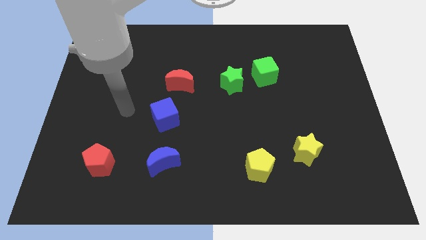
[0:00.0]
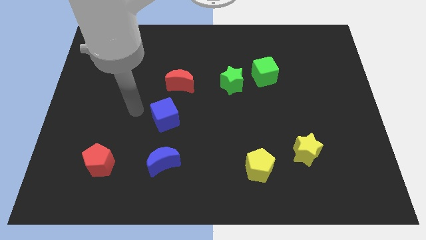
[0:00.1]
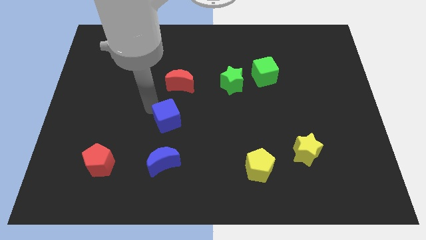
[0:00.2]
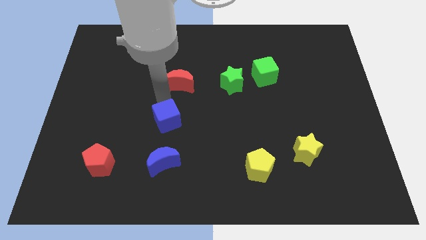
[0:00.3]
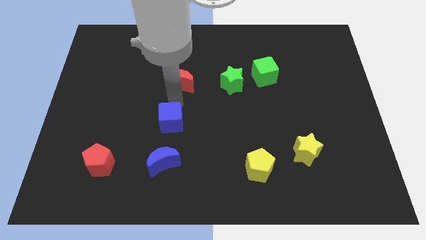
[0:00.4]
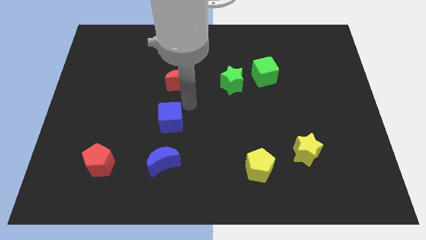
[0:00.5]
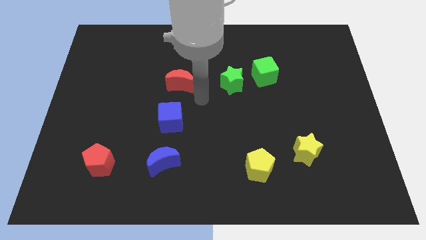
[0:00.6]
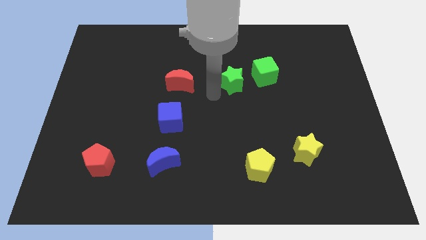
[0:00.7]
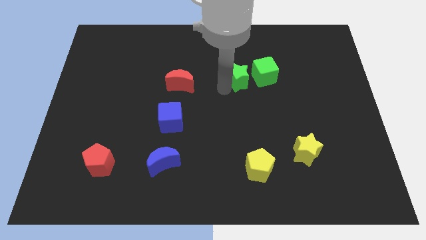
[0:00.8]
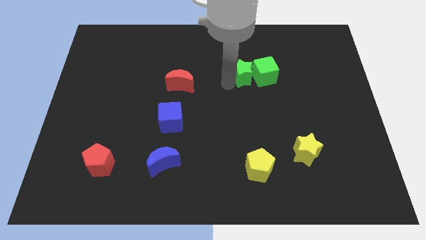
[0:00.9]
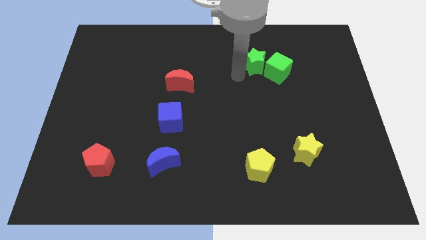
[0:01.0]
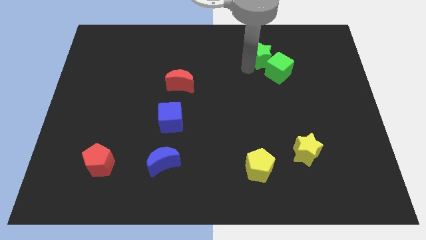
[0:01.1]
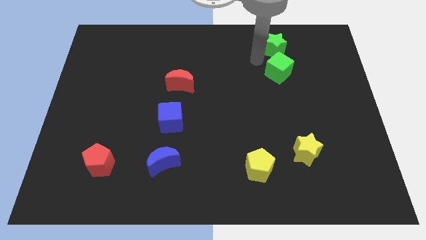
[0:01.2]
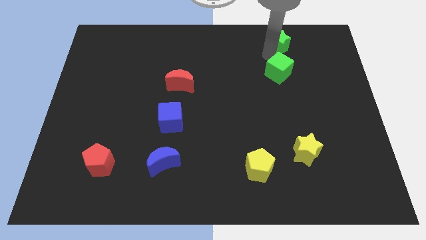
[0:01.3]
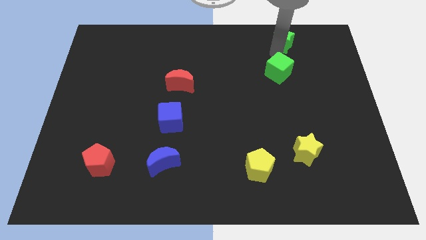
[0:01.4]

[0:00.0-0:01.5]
move the green cube away from the green star

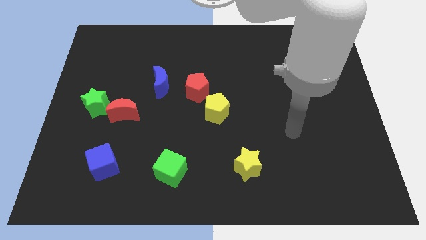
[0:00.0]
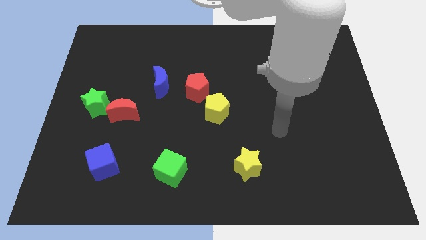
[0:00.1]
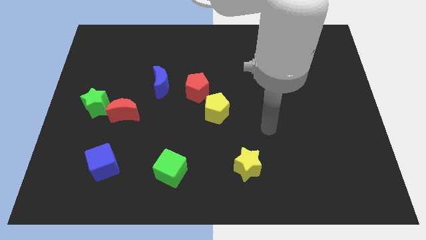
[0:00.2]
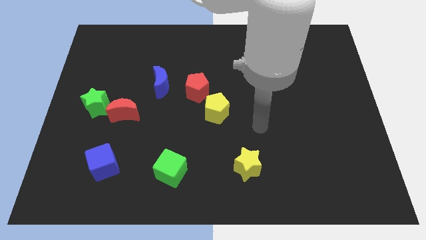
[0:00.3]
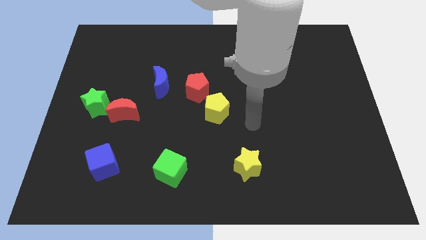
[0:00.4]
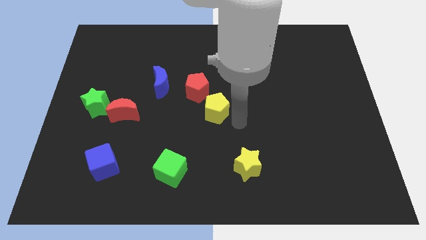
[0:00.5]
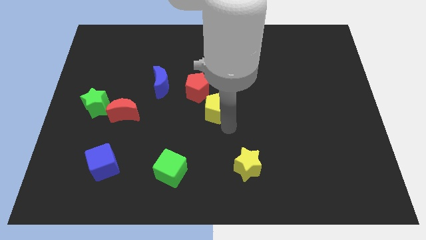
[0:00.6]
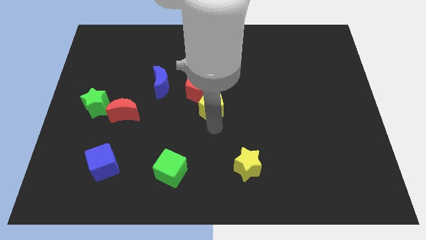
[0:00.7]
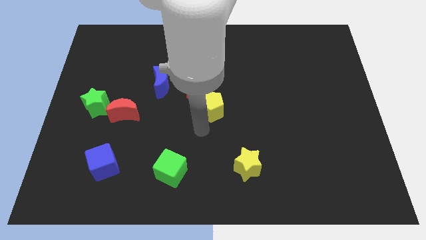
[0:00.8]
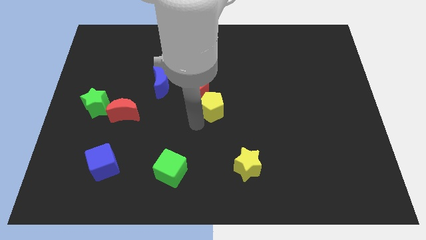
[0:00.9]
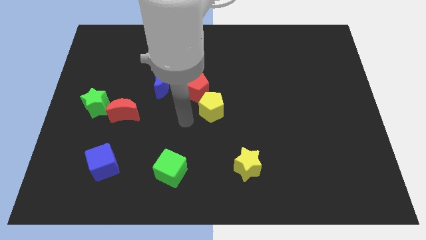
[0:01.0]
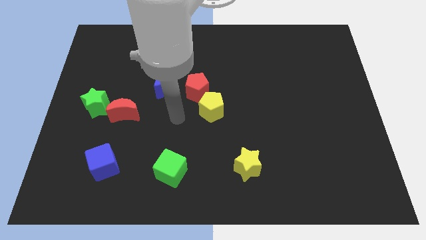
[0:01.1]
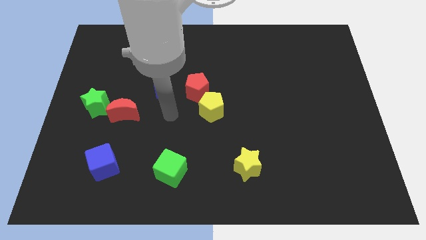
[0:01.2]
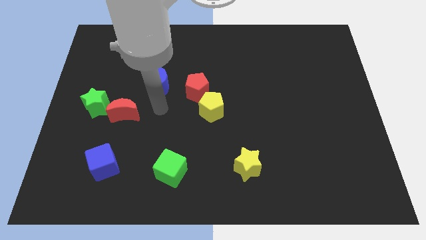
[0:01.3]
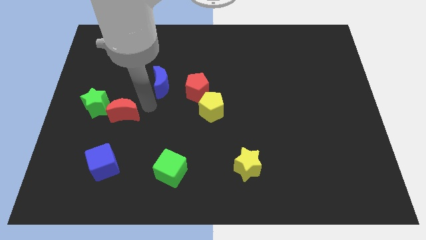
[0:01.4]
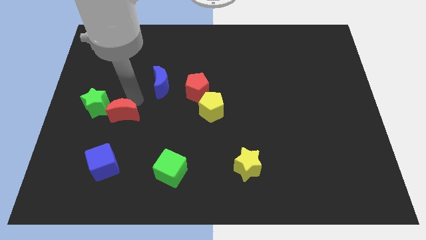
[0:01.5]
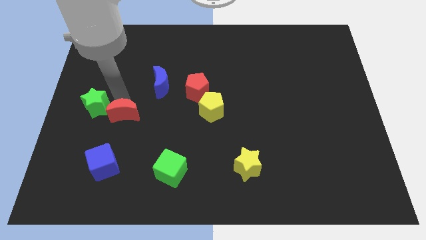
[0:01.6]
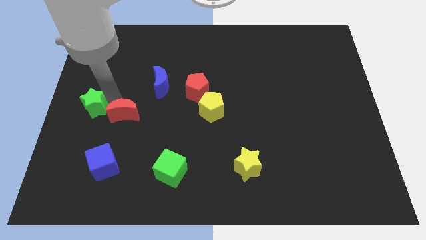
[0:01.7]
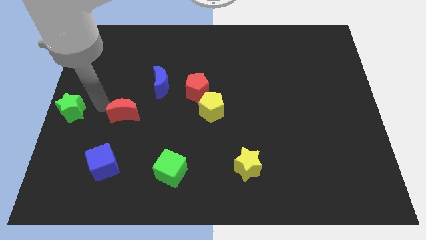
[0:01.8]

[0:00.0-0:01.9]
move the red moon away from the green star

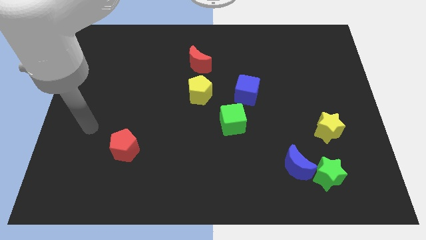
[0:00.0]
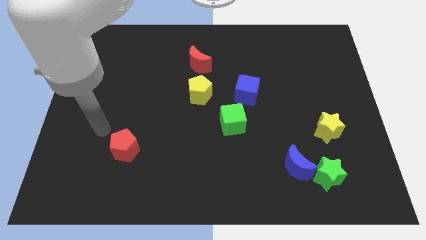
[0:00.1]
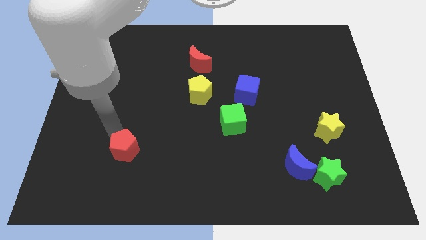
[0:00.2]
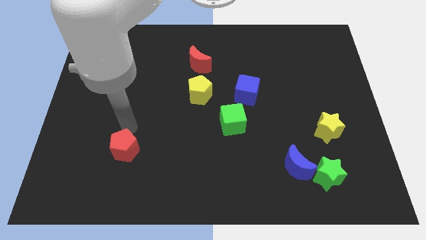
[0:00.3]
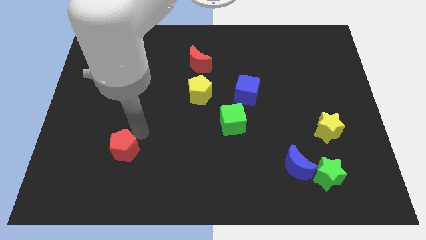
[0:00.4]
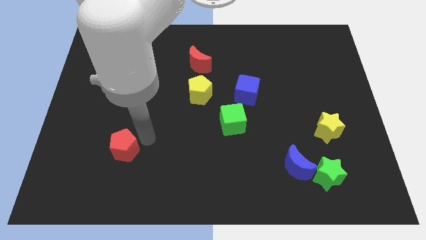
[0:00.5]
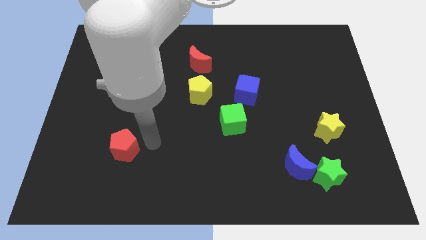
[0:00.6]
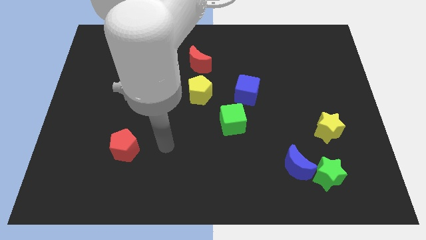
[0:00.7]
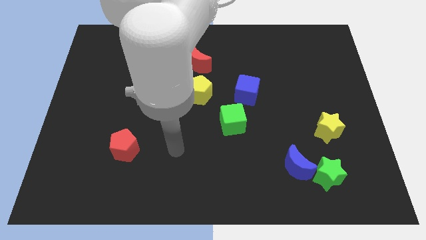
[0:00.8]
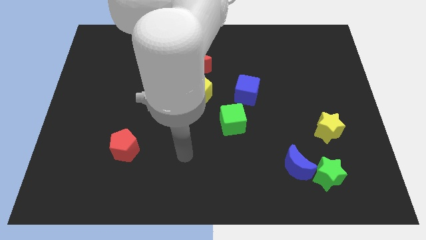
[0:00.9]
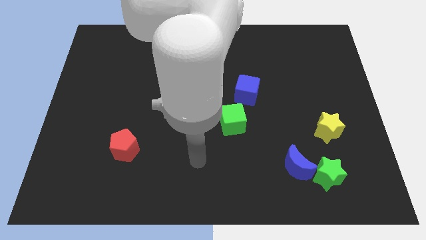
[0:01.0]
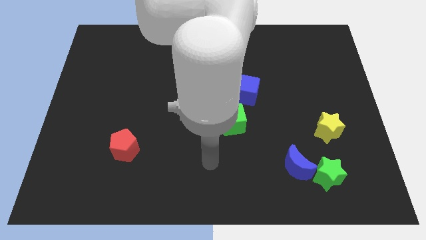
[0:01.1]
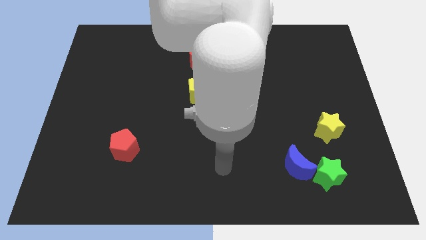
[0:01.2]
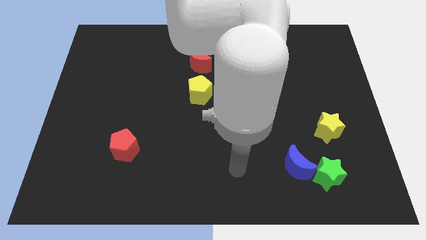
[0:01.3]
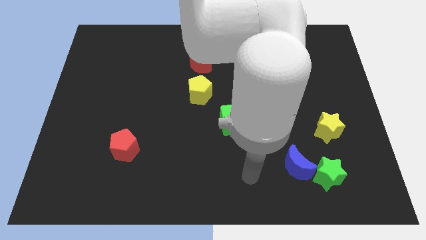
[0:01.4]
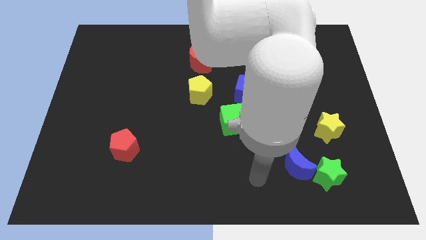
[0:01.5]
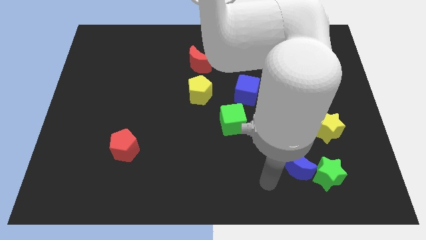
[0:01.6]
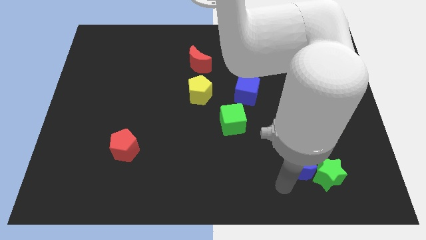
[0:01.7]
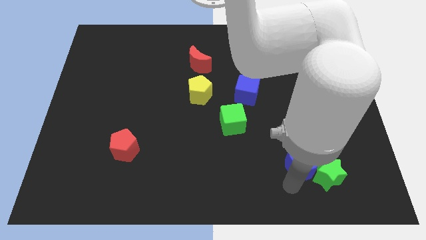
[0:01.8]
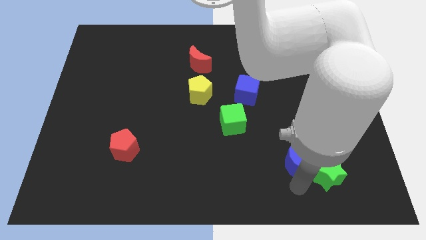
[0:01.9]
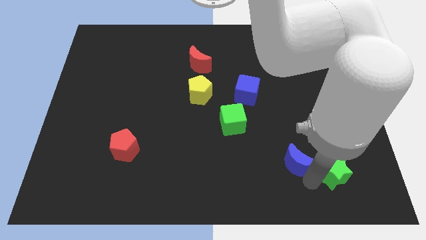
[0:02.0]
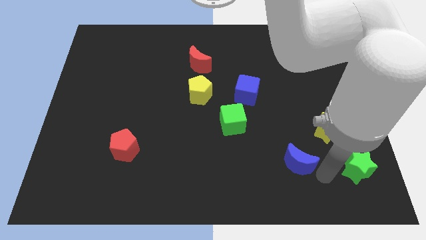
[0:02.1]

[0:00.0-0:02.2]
move the blue moon away from the green star

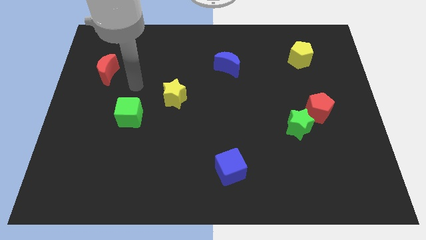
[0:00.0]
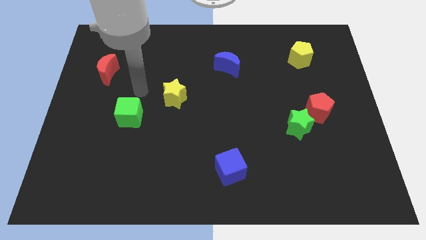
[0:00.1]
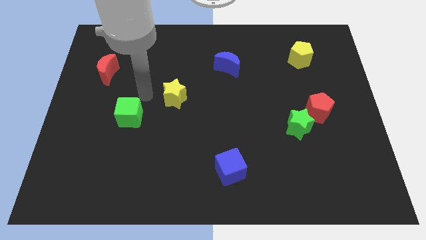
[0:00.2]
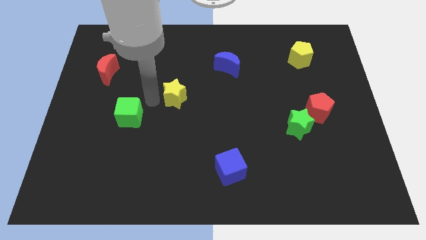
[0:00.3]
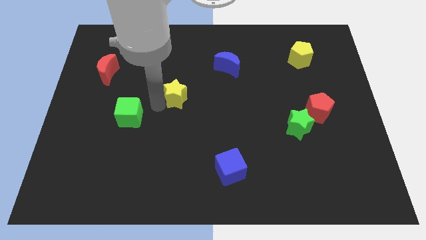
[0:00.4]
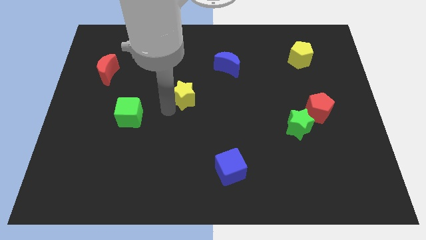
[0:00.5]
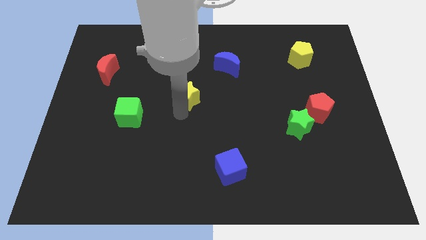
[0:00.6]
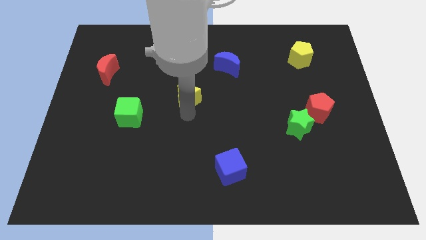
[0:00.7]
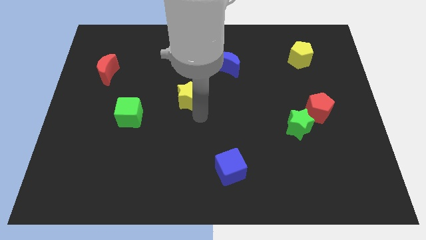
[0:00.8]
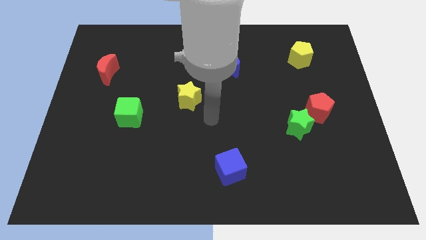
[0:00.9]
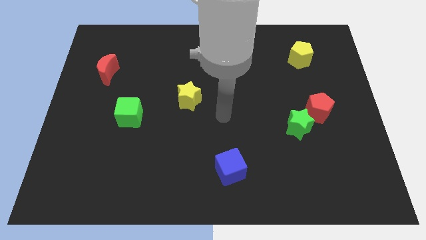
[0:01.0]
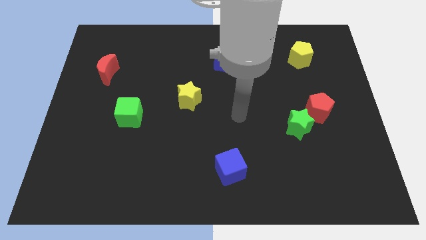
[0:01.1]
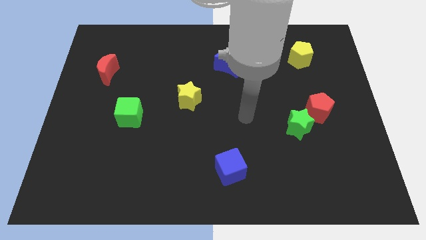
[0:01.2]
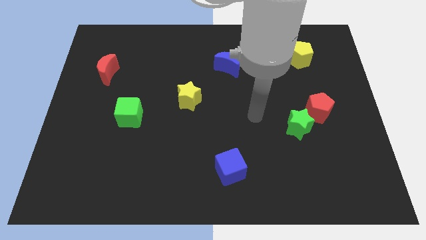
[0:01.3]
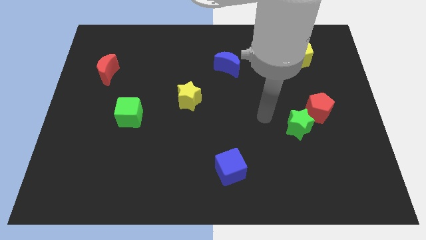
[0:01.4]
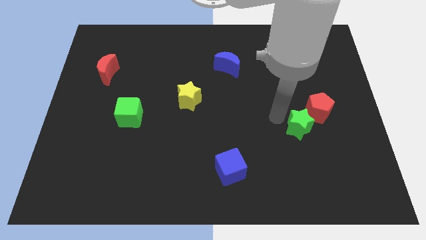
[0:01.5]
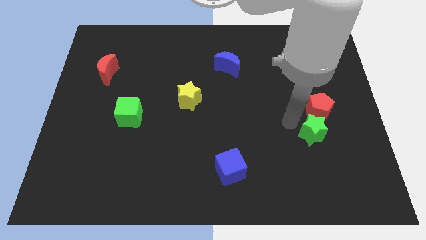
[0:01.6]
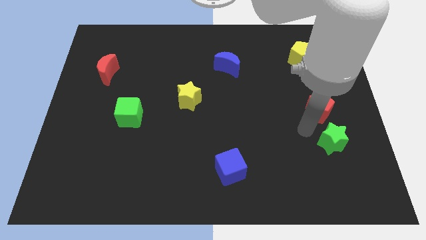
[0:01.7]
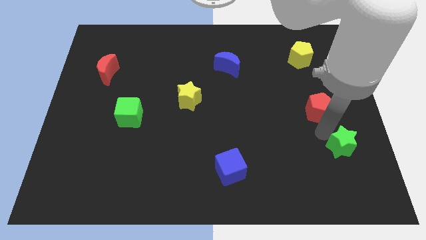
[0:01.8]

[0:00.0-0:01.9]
pull the red pentagon apart from the green star

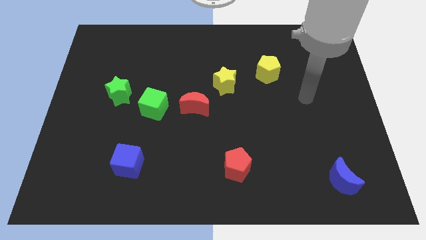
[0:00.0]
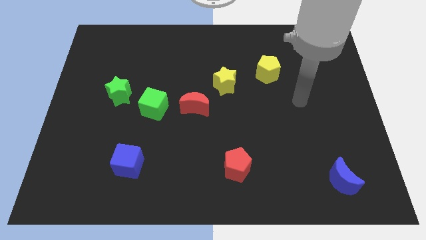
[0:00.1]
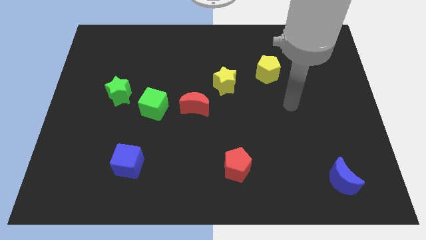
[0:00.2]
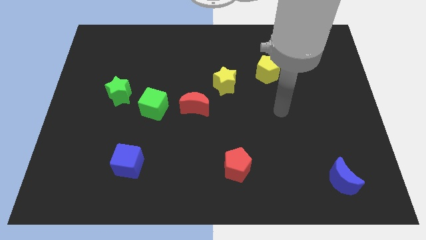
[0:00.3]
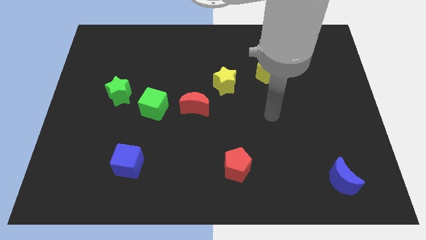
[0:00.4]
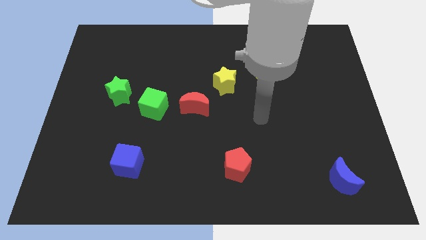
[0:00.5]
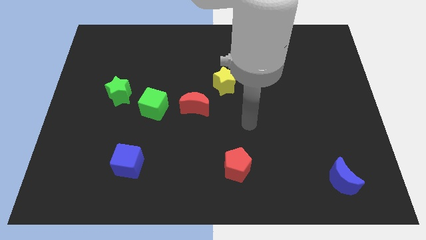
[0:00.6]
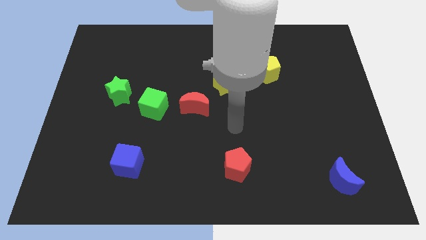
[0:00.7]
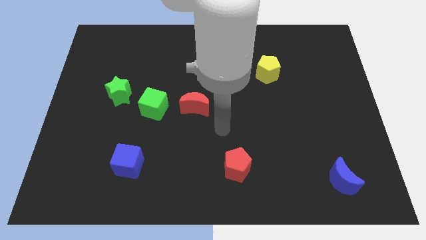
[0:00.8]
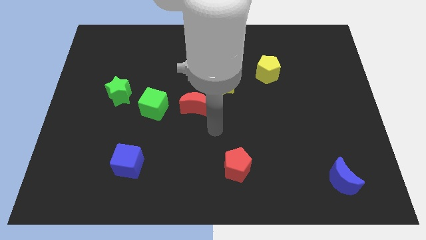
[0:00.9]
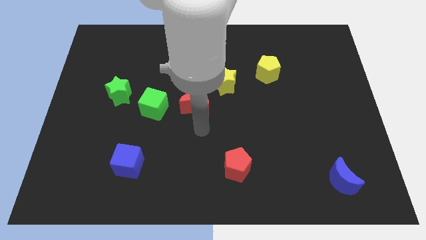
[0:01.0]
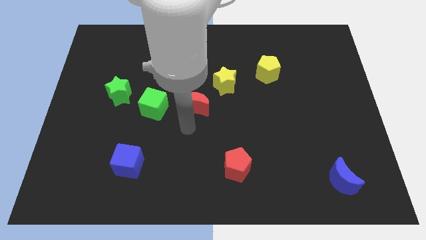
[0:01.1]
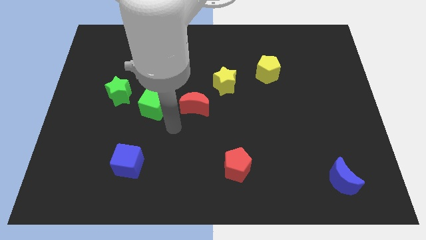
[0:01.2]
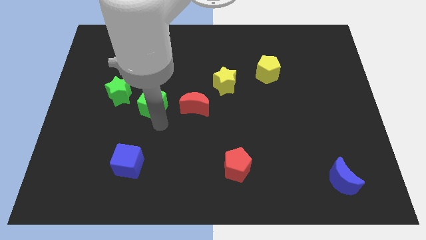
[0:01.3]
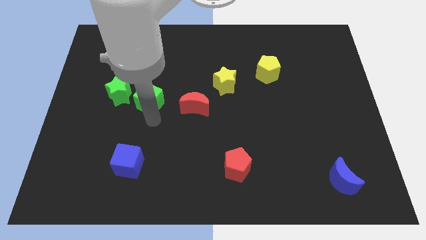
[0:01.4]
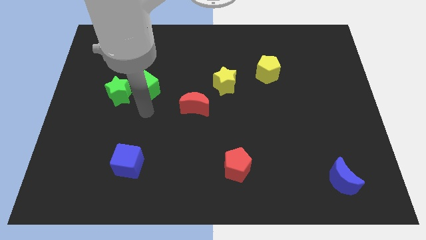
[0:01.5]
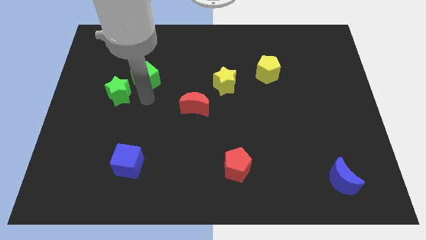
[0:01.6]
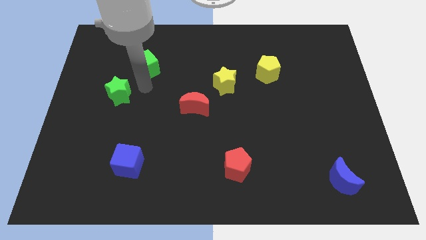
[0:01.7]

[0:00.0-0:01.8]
pull the green star apart from the green cube
